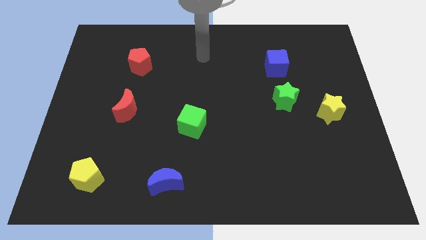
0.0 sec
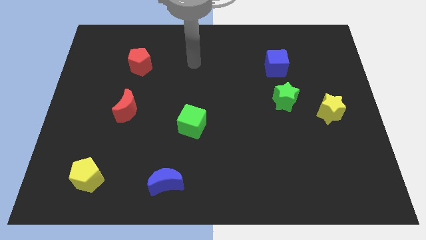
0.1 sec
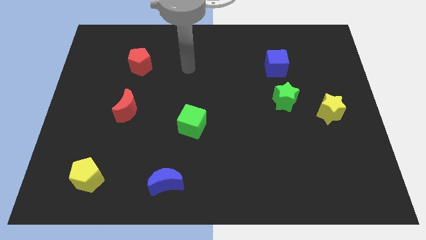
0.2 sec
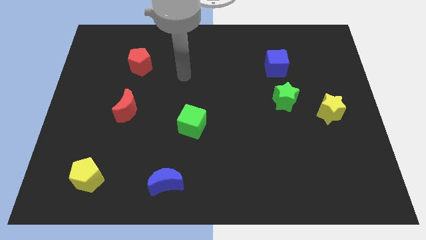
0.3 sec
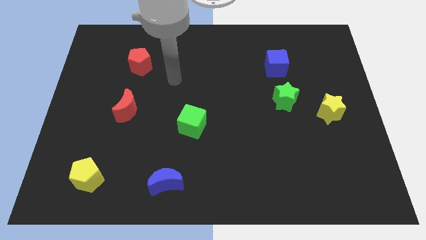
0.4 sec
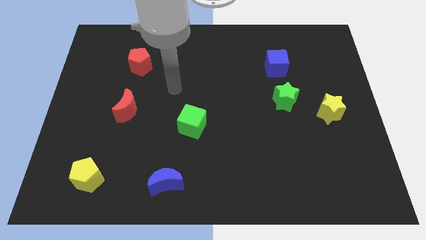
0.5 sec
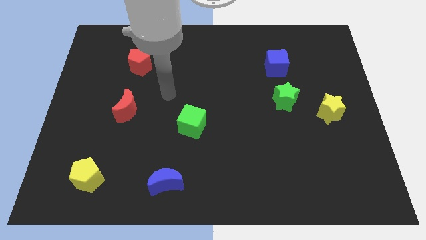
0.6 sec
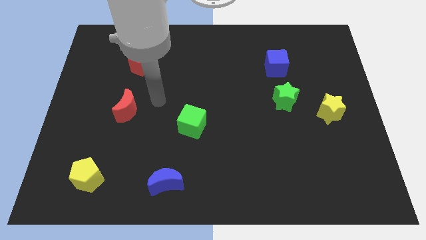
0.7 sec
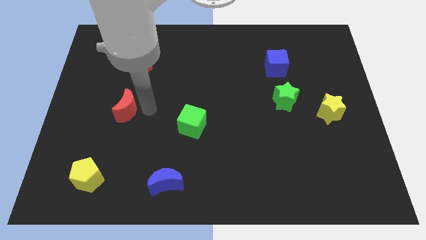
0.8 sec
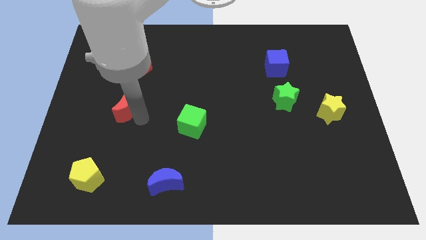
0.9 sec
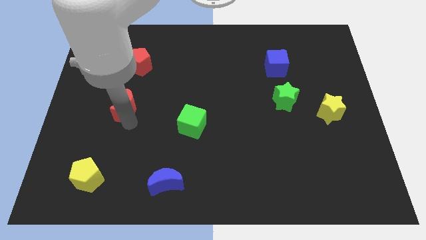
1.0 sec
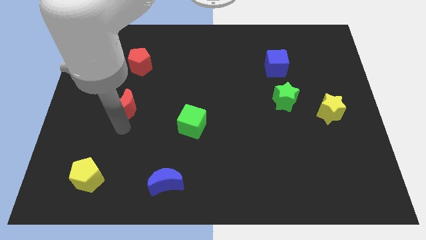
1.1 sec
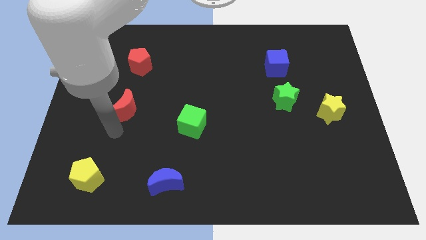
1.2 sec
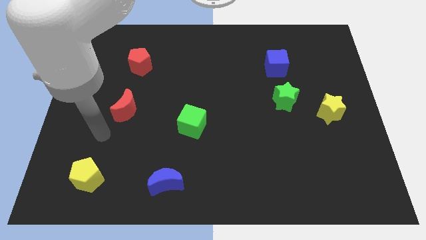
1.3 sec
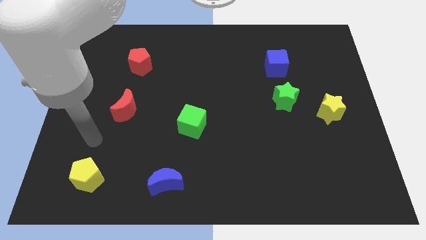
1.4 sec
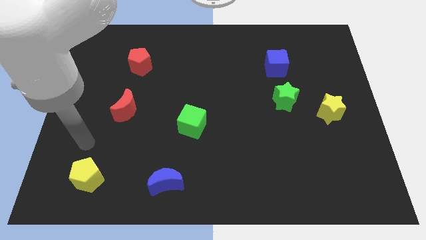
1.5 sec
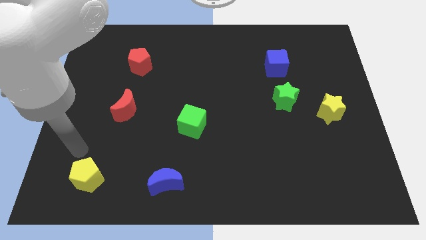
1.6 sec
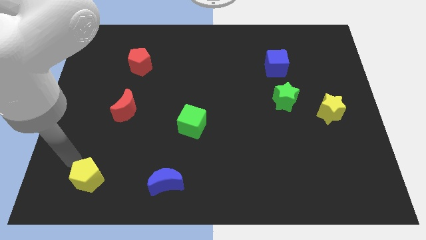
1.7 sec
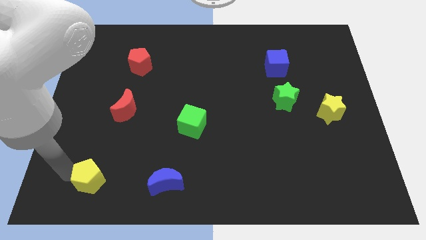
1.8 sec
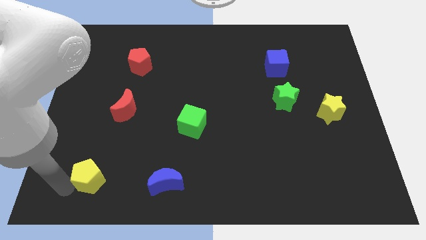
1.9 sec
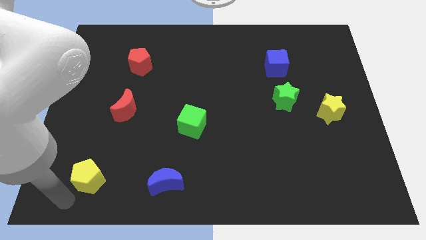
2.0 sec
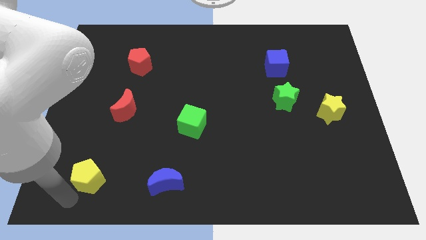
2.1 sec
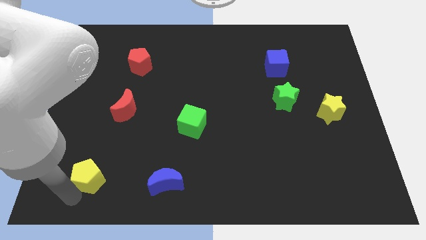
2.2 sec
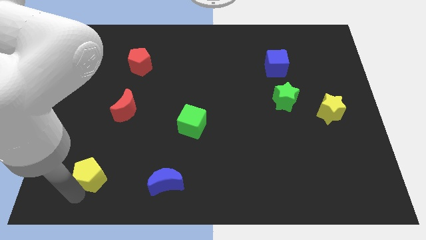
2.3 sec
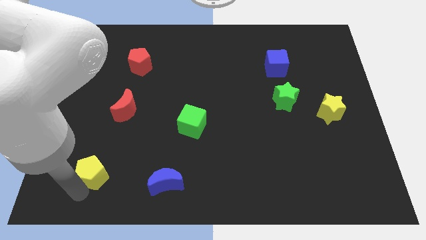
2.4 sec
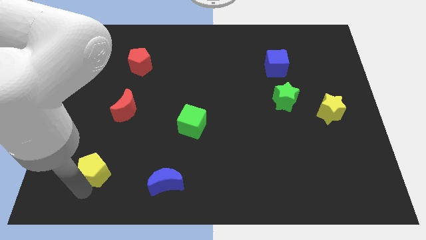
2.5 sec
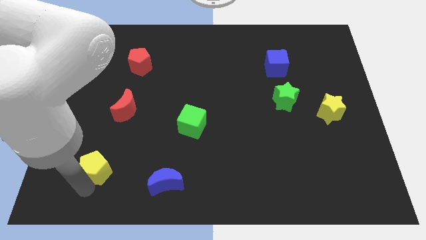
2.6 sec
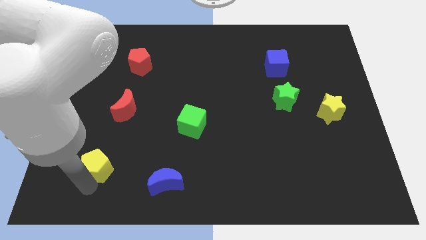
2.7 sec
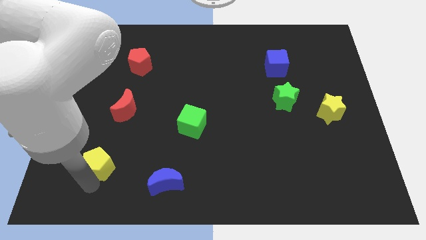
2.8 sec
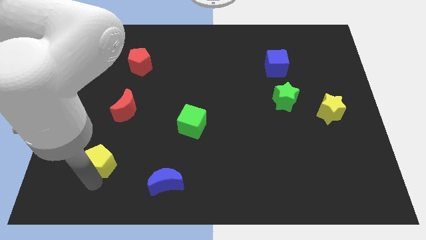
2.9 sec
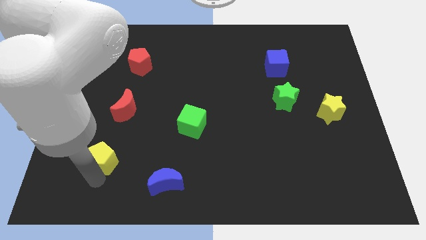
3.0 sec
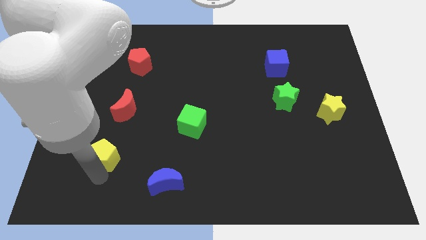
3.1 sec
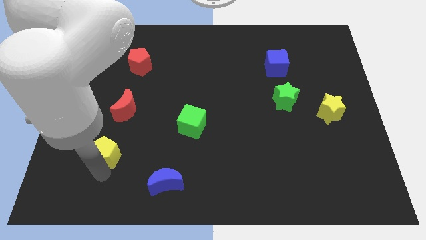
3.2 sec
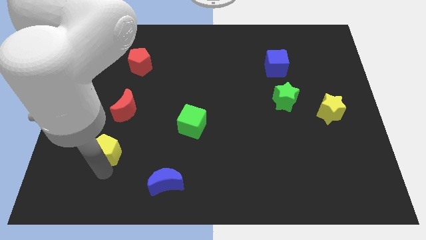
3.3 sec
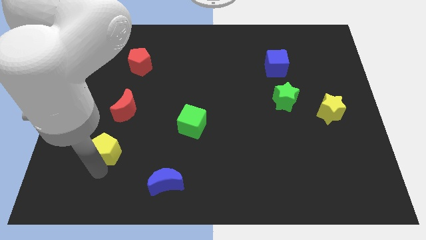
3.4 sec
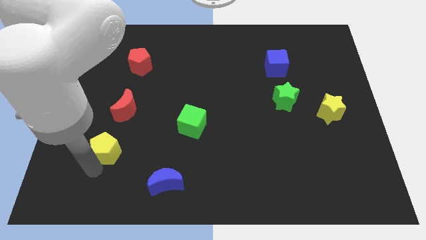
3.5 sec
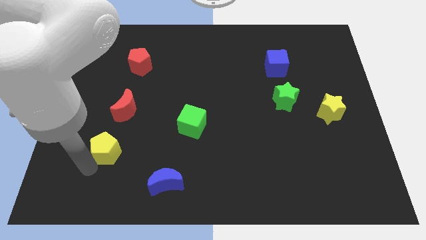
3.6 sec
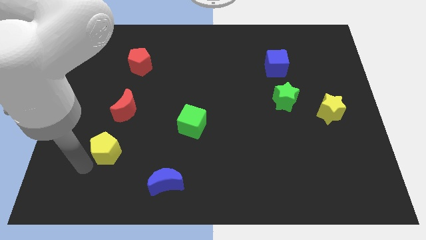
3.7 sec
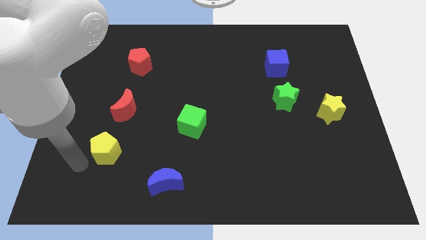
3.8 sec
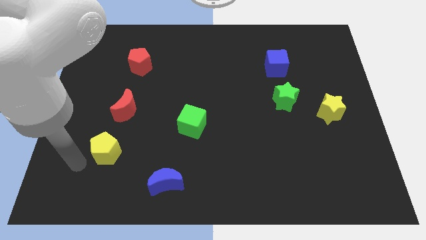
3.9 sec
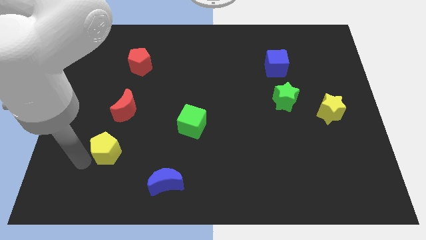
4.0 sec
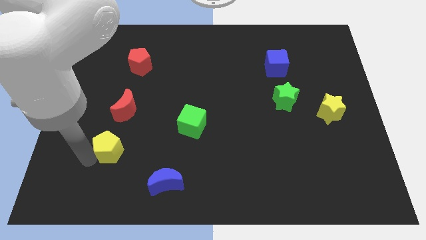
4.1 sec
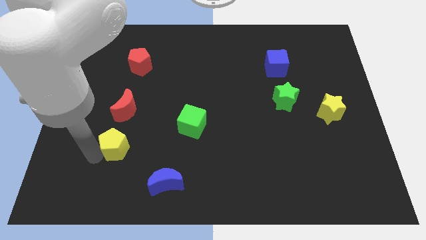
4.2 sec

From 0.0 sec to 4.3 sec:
push the yellow pentagon somewhat diagonally up and to the right

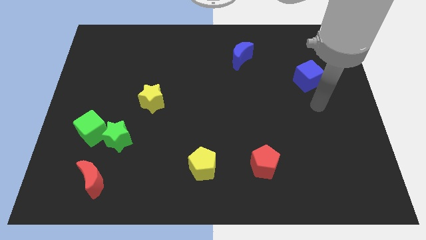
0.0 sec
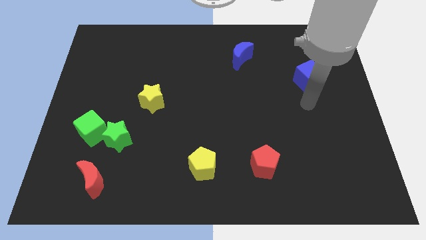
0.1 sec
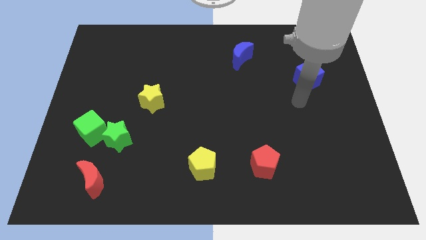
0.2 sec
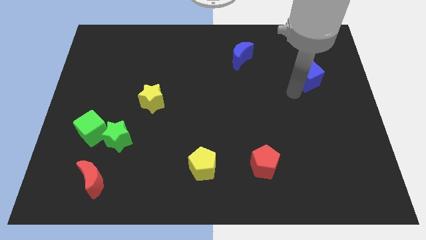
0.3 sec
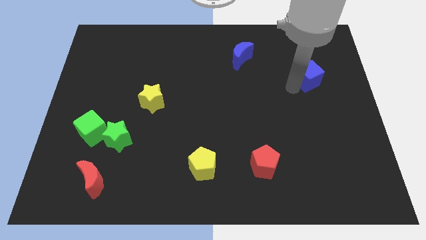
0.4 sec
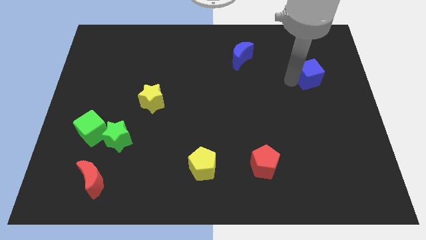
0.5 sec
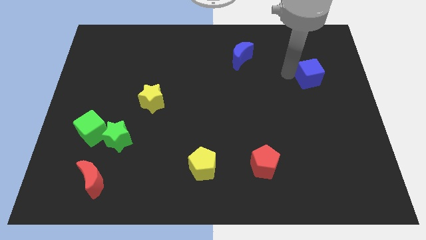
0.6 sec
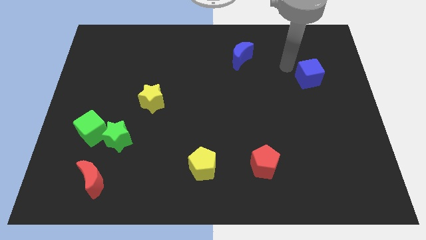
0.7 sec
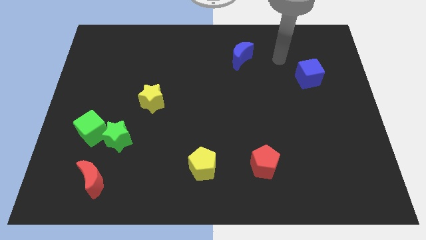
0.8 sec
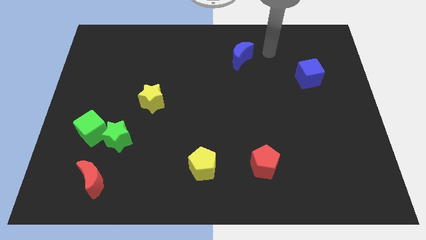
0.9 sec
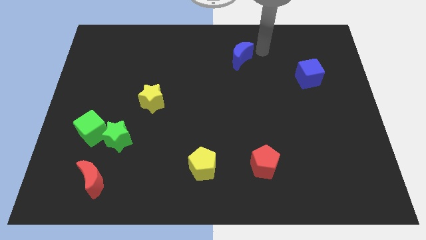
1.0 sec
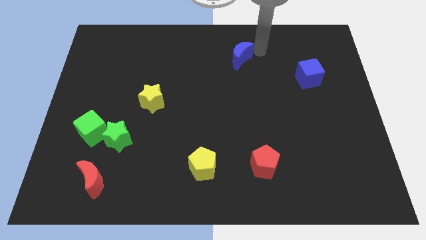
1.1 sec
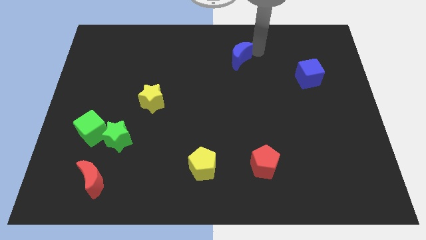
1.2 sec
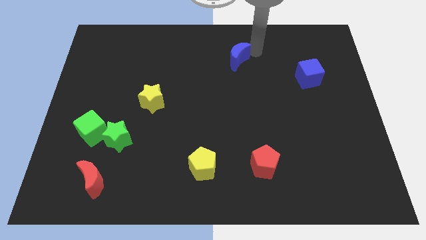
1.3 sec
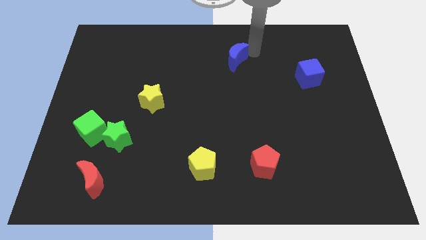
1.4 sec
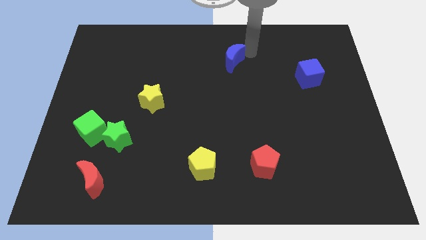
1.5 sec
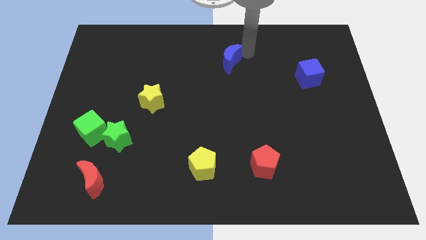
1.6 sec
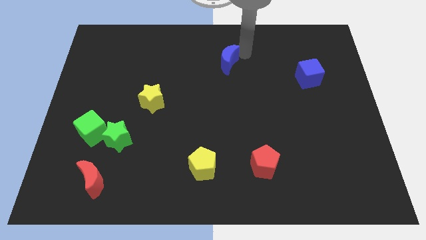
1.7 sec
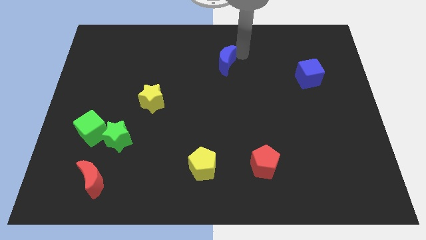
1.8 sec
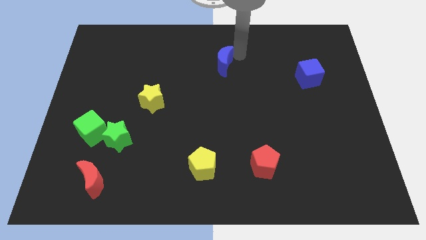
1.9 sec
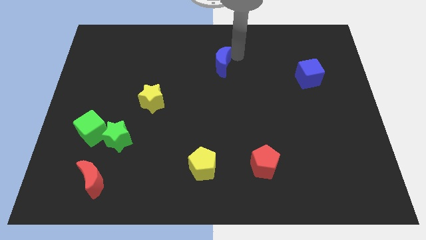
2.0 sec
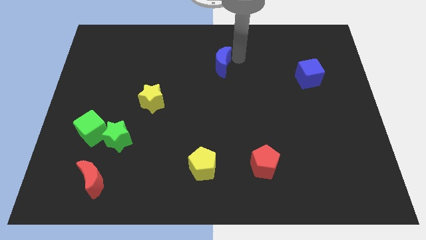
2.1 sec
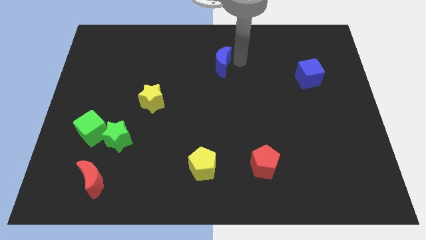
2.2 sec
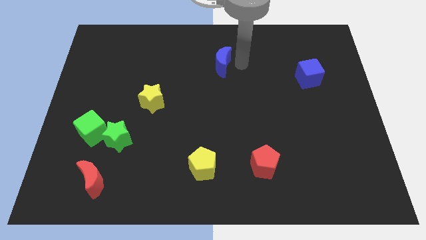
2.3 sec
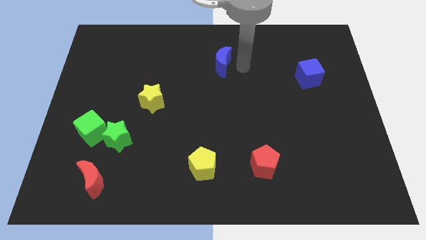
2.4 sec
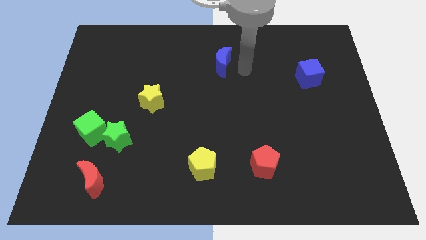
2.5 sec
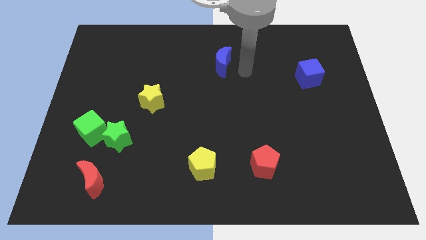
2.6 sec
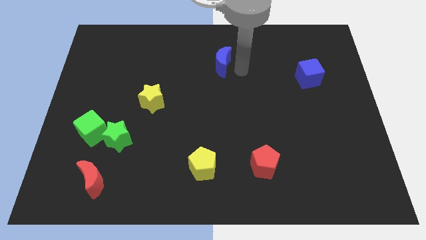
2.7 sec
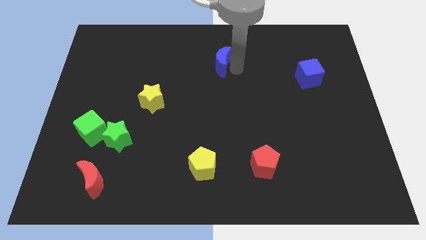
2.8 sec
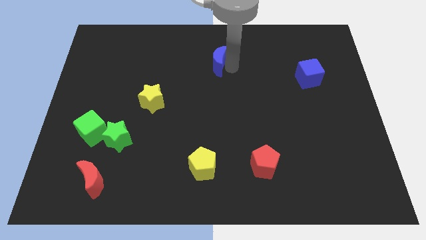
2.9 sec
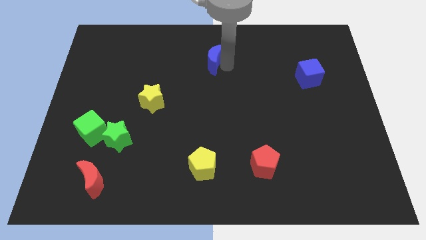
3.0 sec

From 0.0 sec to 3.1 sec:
push the blue moon left a little bit

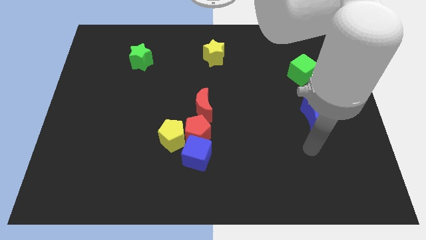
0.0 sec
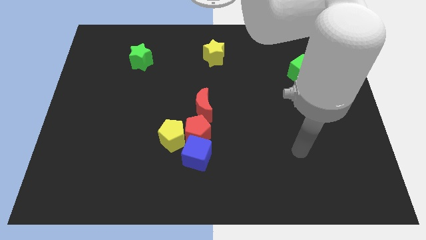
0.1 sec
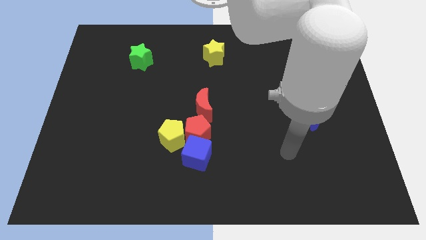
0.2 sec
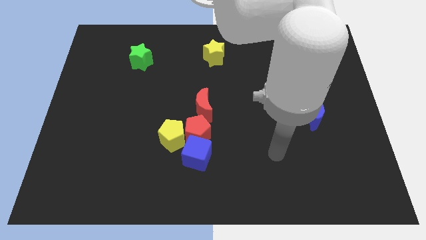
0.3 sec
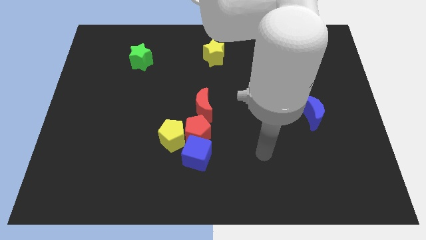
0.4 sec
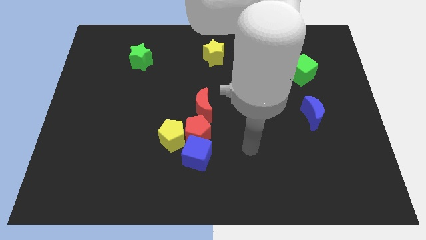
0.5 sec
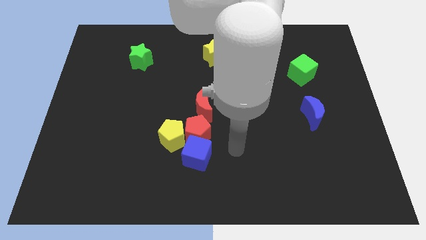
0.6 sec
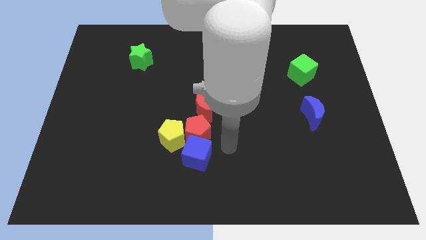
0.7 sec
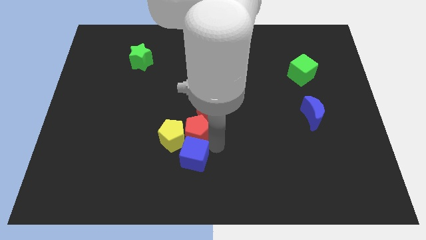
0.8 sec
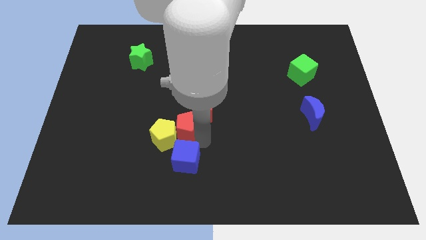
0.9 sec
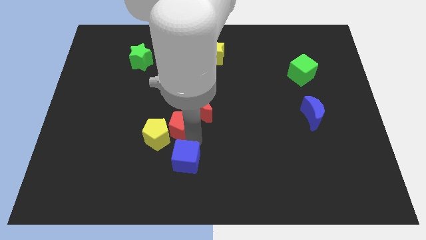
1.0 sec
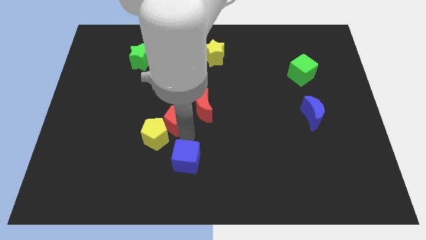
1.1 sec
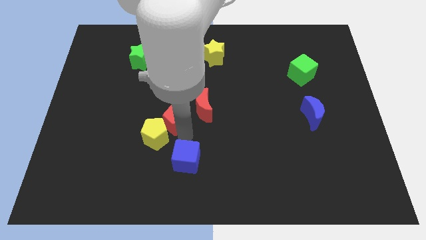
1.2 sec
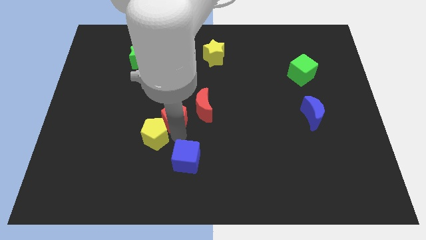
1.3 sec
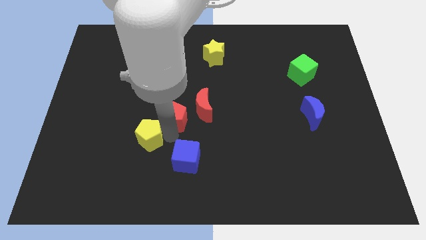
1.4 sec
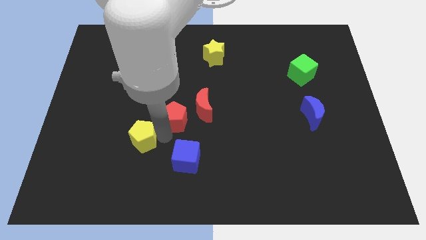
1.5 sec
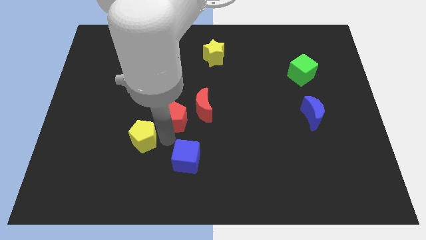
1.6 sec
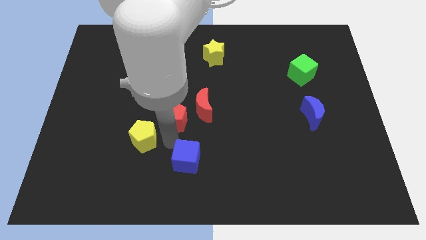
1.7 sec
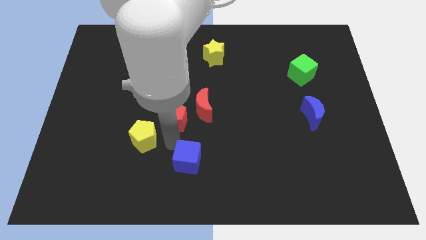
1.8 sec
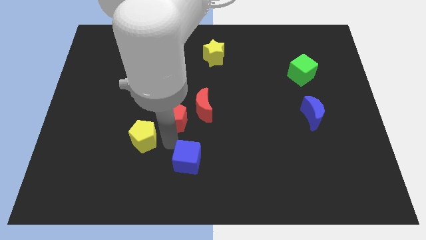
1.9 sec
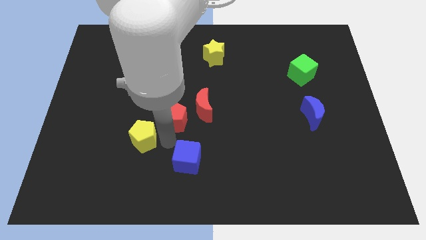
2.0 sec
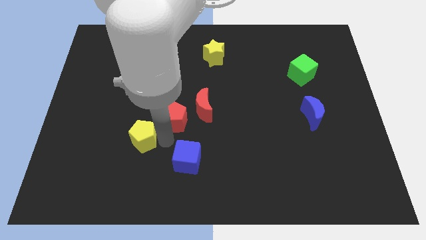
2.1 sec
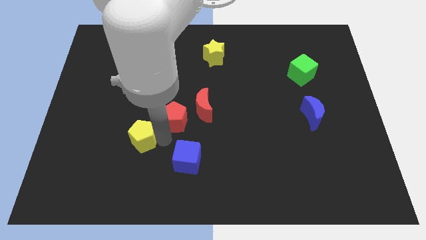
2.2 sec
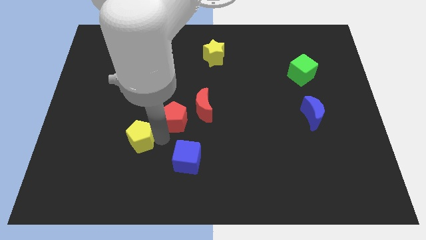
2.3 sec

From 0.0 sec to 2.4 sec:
slide the yellow pentagon to the left a bit
